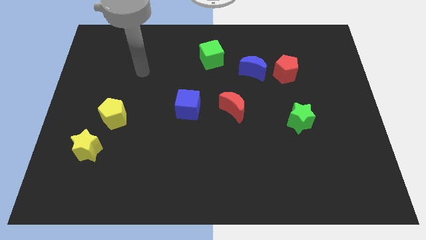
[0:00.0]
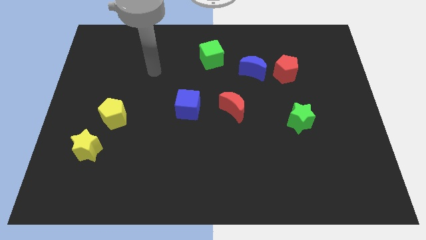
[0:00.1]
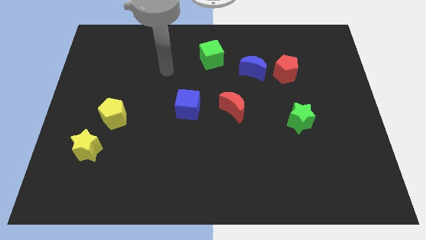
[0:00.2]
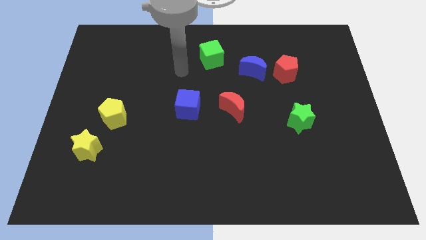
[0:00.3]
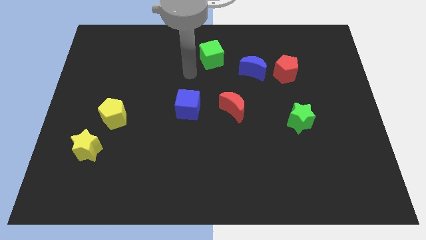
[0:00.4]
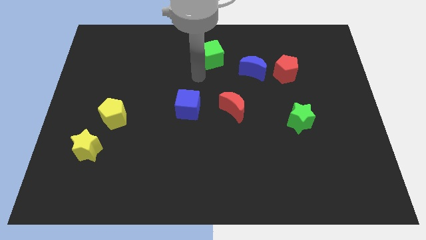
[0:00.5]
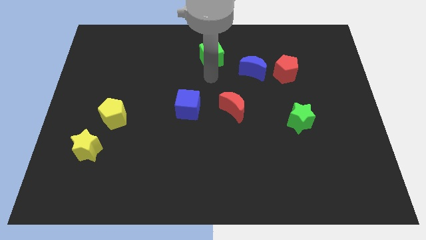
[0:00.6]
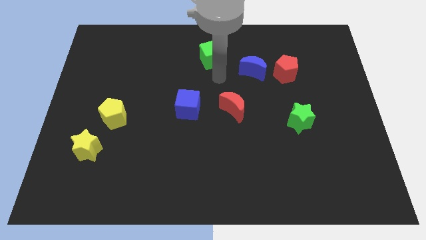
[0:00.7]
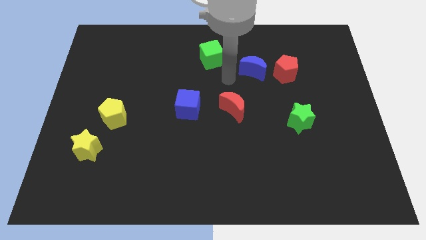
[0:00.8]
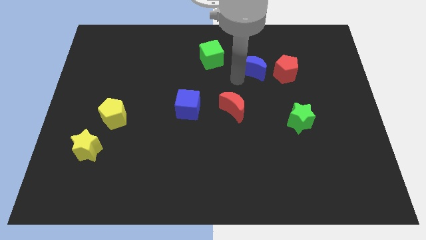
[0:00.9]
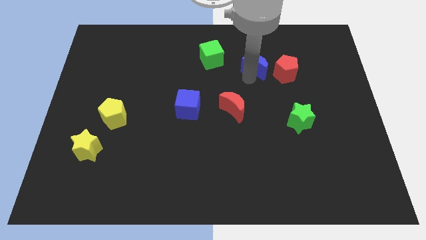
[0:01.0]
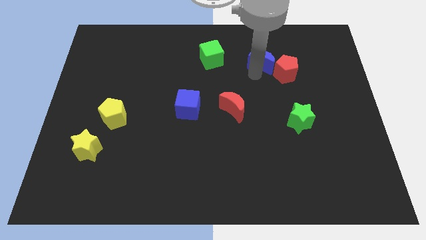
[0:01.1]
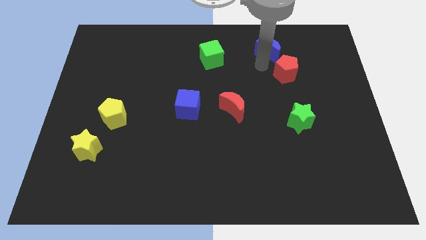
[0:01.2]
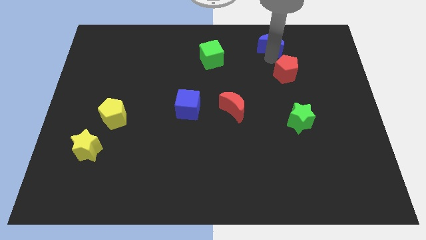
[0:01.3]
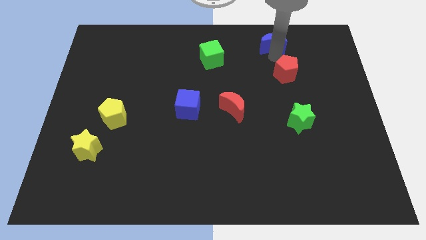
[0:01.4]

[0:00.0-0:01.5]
pull the red pentagon apart from the blue moon

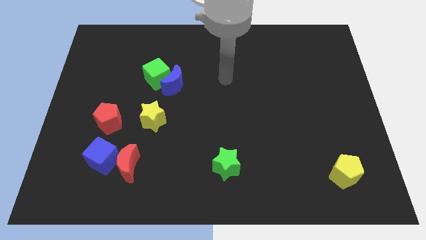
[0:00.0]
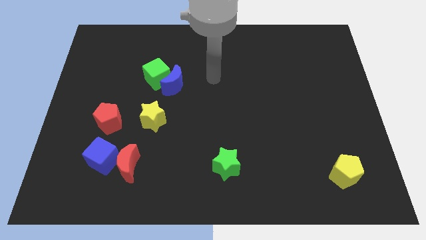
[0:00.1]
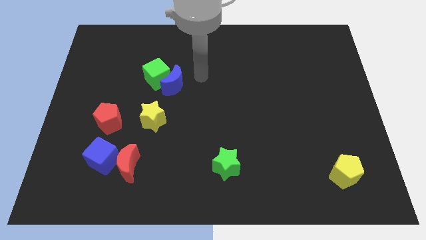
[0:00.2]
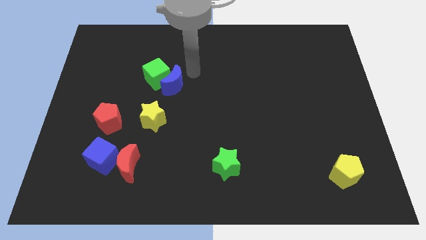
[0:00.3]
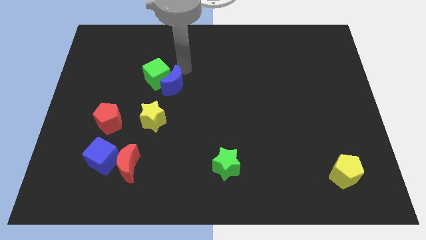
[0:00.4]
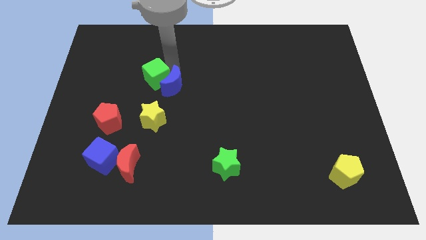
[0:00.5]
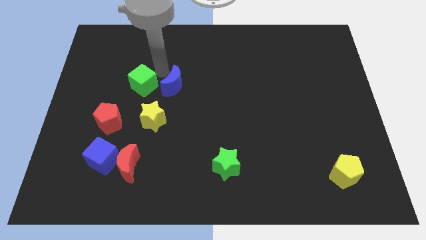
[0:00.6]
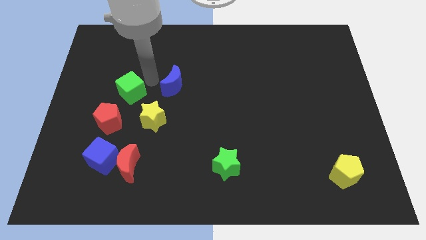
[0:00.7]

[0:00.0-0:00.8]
move the blue moon away from the green cube

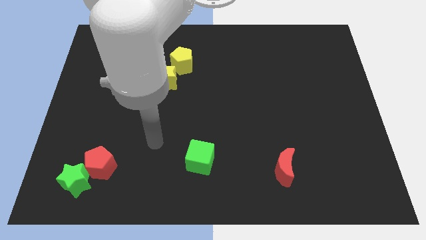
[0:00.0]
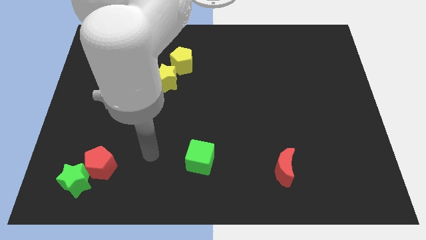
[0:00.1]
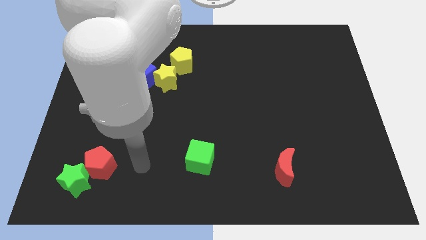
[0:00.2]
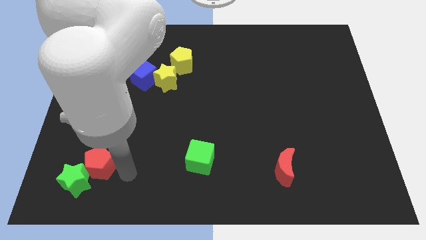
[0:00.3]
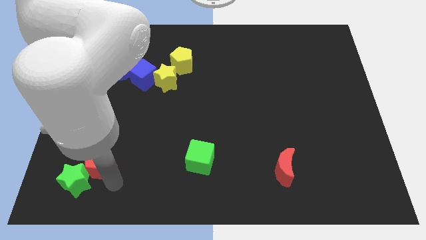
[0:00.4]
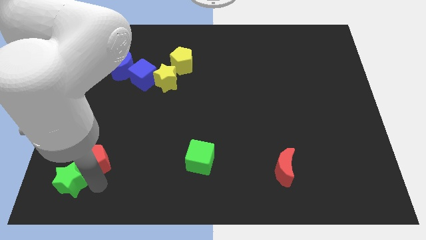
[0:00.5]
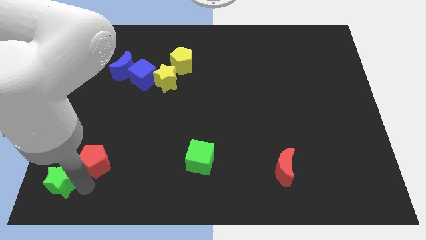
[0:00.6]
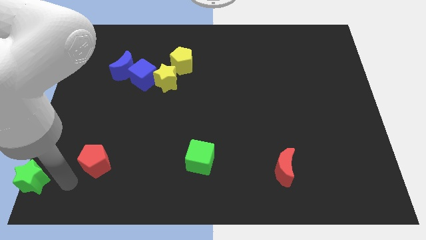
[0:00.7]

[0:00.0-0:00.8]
move the red pentagon away from the green star

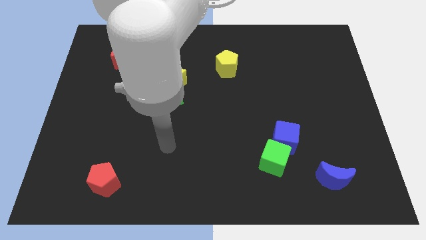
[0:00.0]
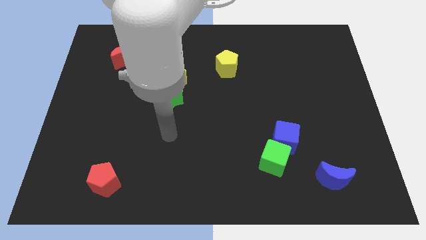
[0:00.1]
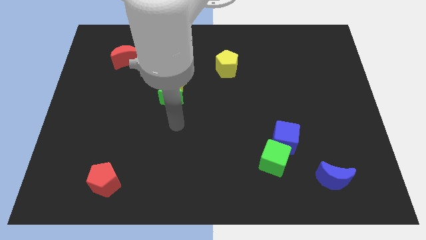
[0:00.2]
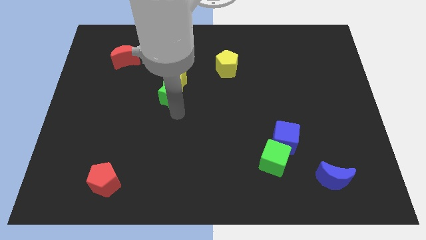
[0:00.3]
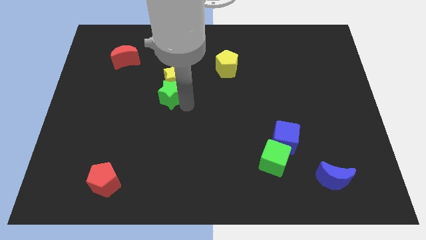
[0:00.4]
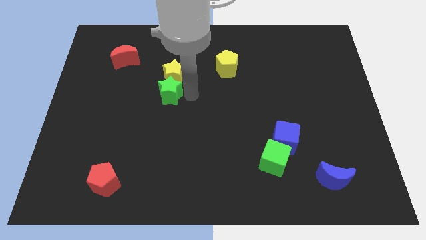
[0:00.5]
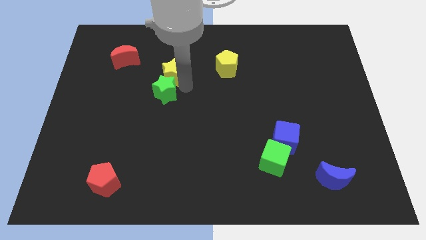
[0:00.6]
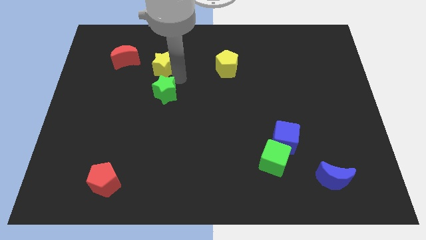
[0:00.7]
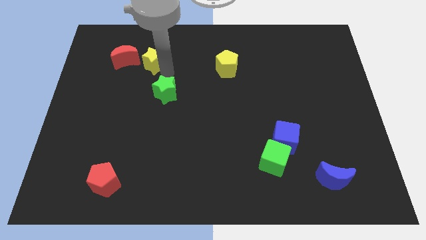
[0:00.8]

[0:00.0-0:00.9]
separate the green star from the yellow star

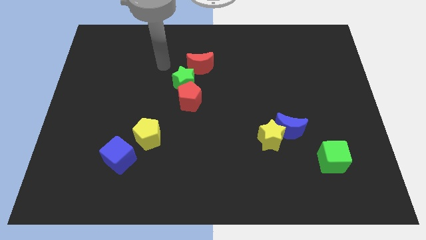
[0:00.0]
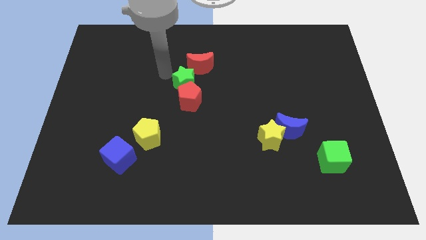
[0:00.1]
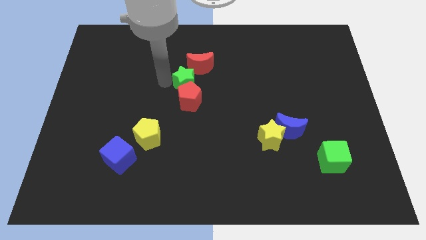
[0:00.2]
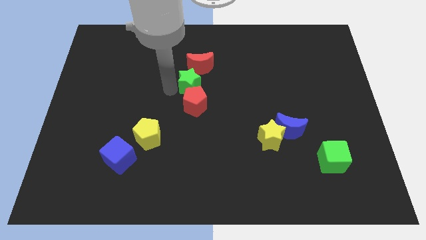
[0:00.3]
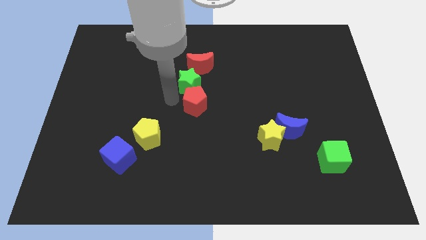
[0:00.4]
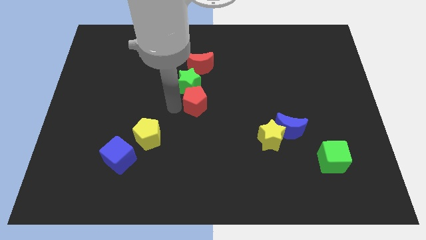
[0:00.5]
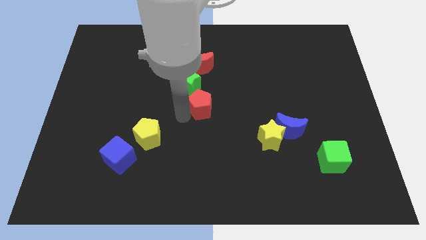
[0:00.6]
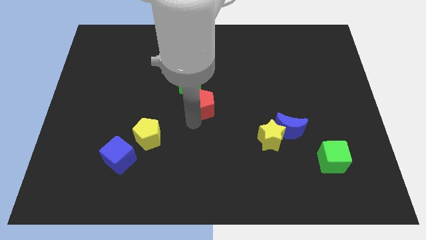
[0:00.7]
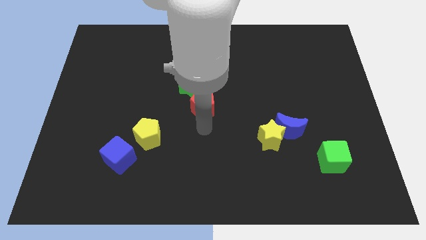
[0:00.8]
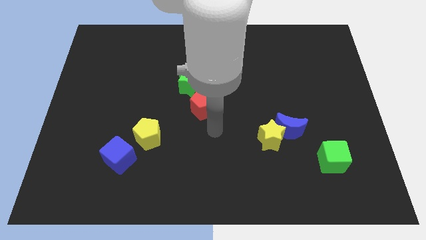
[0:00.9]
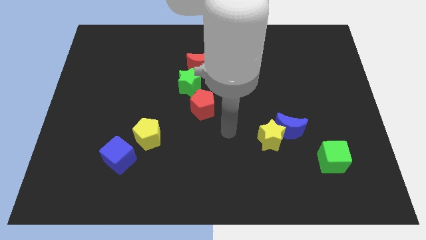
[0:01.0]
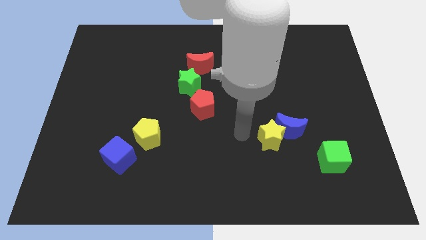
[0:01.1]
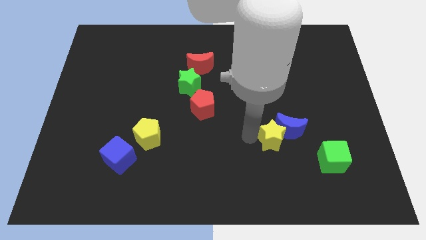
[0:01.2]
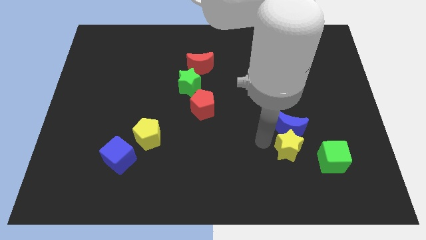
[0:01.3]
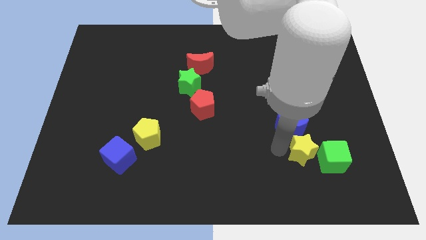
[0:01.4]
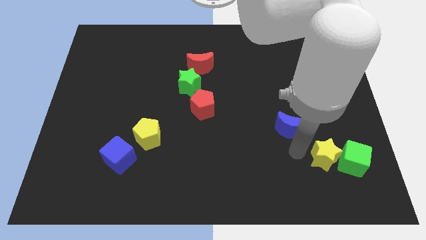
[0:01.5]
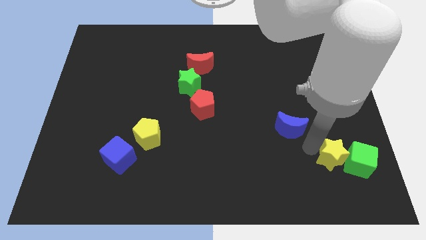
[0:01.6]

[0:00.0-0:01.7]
pull the blue moon apart from the yellow star

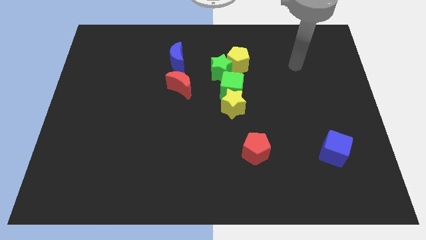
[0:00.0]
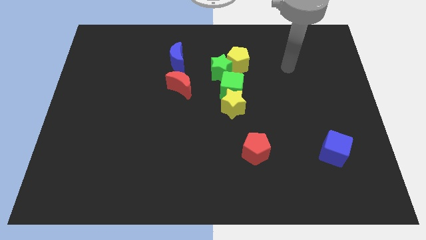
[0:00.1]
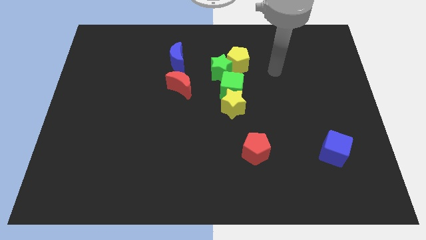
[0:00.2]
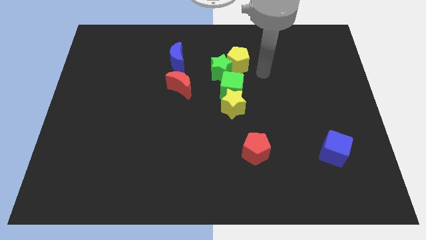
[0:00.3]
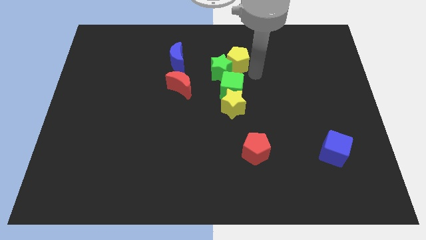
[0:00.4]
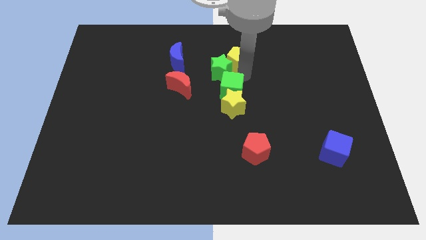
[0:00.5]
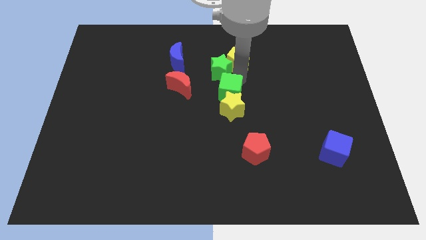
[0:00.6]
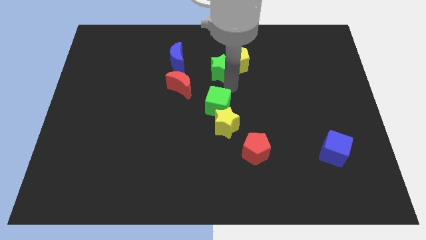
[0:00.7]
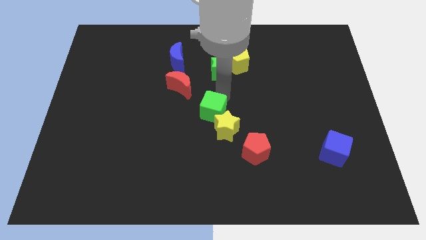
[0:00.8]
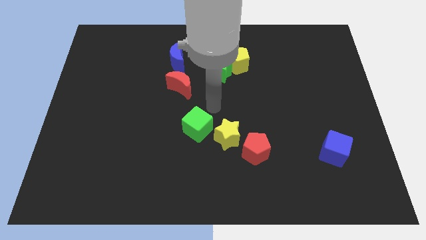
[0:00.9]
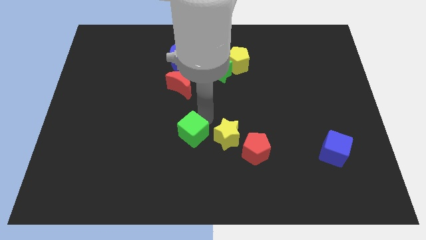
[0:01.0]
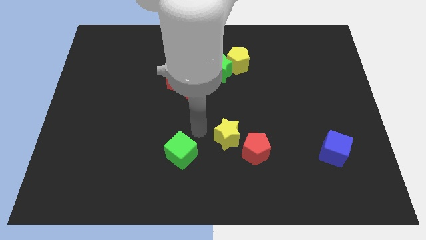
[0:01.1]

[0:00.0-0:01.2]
move the yellow star away from the green cube

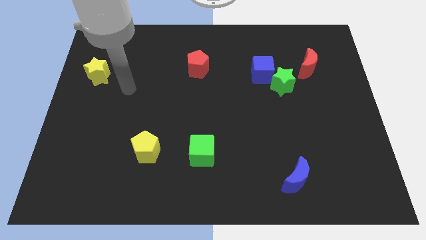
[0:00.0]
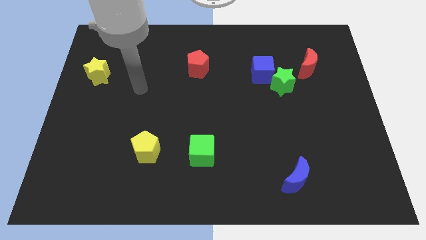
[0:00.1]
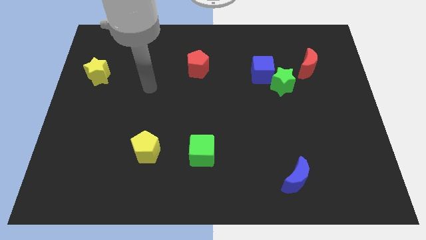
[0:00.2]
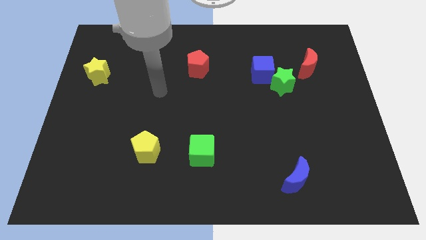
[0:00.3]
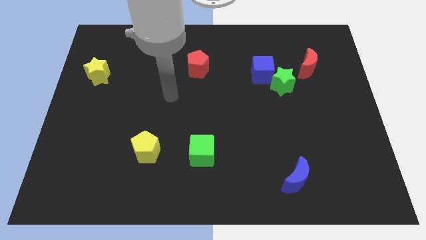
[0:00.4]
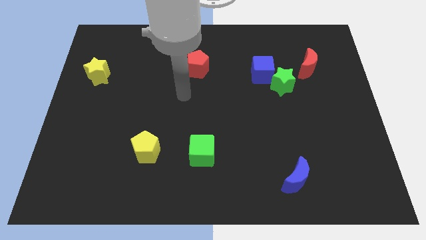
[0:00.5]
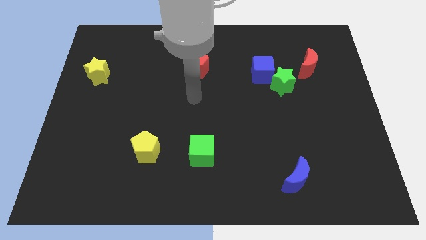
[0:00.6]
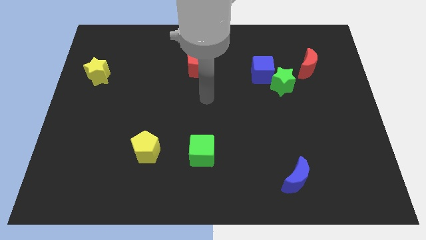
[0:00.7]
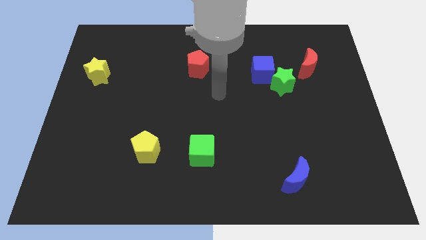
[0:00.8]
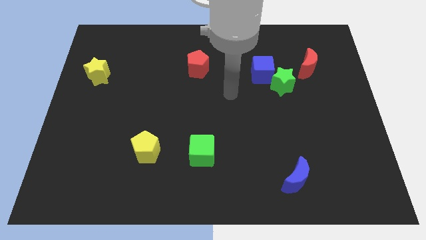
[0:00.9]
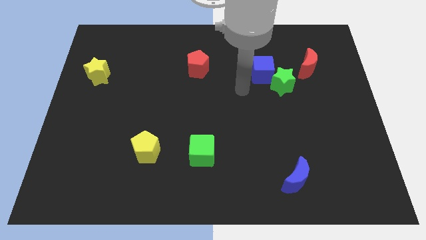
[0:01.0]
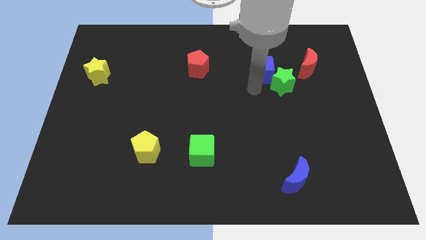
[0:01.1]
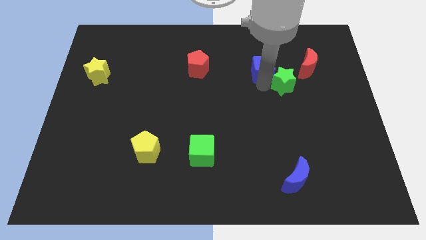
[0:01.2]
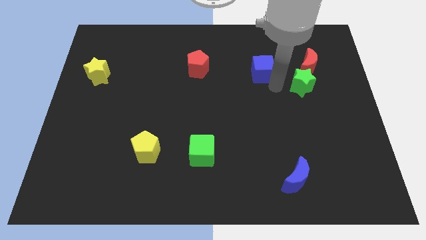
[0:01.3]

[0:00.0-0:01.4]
separate the blue cube from the green star

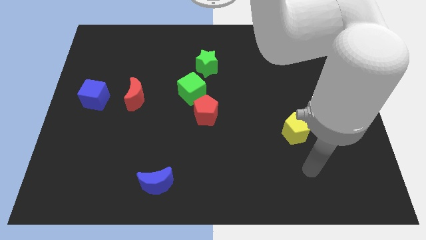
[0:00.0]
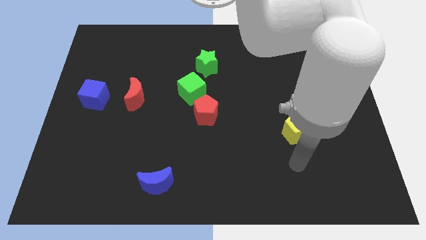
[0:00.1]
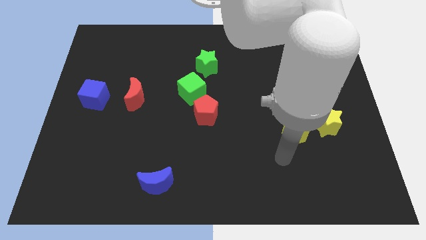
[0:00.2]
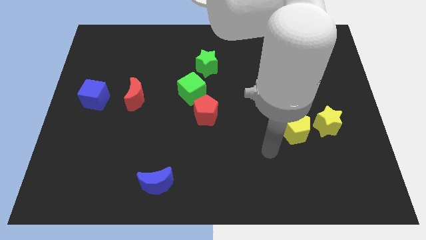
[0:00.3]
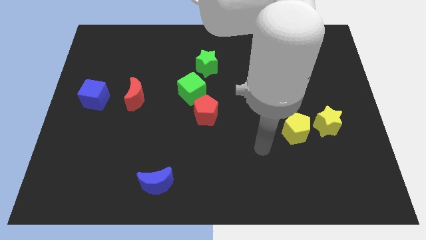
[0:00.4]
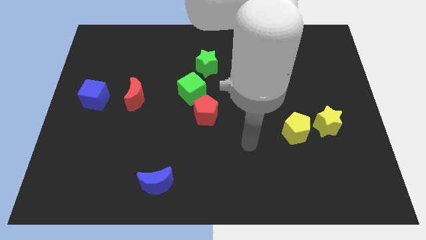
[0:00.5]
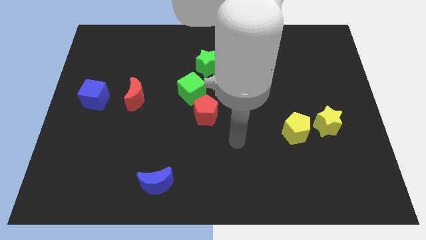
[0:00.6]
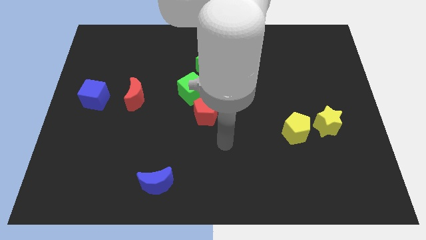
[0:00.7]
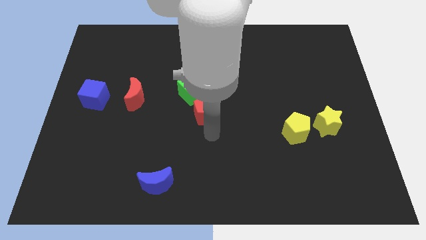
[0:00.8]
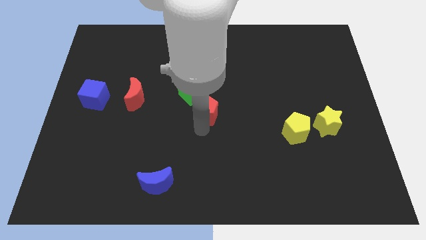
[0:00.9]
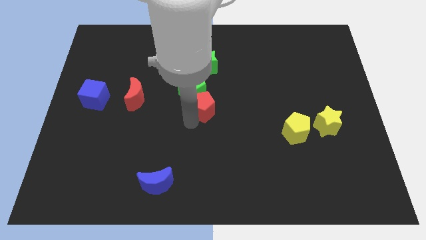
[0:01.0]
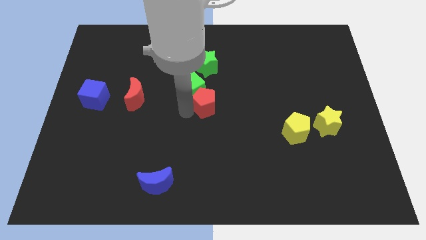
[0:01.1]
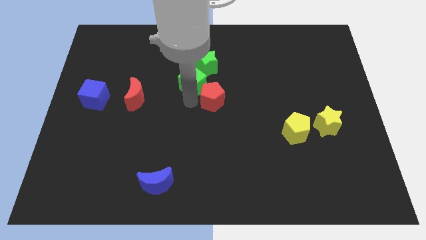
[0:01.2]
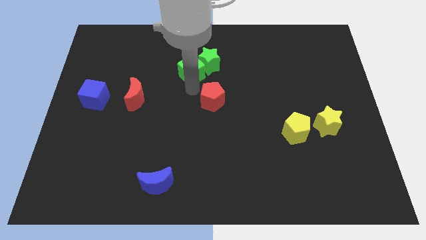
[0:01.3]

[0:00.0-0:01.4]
separate the red pentagon from the green cube
